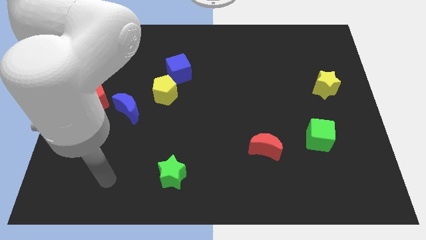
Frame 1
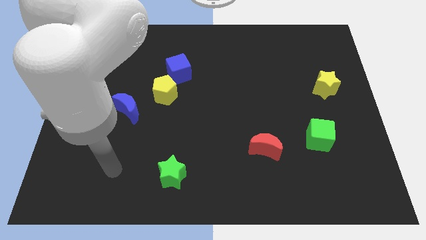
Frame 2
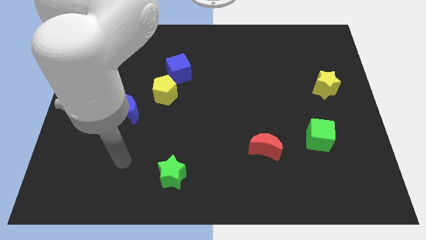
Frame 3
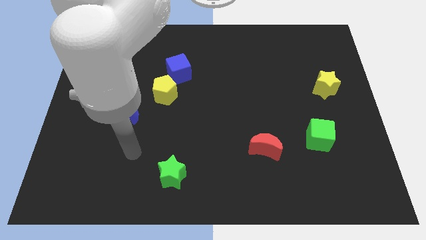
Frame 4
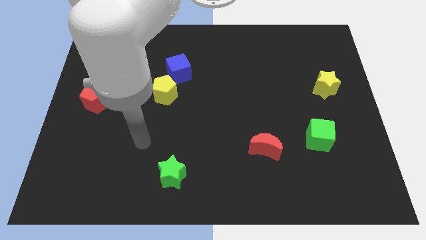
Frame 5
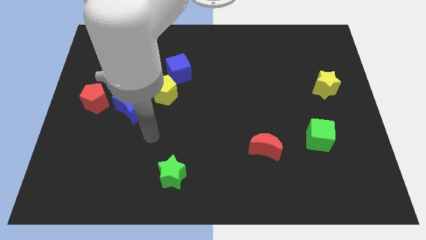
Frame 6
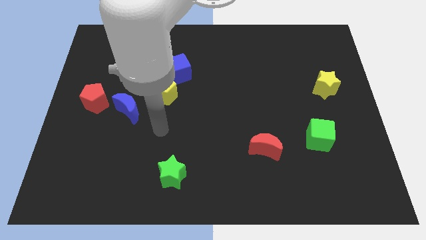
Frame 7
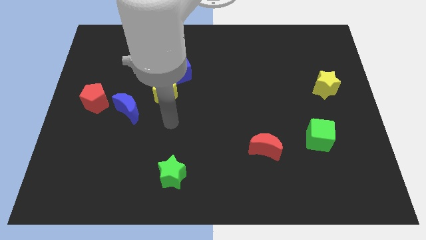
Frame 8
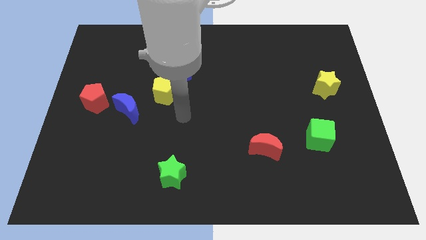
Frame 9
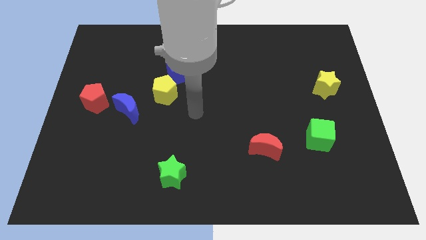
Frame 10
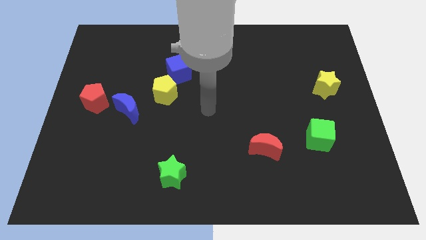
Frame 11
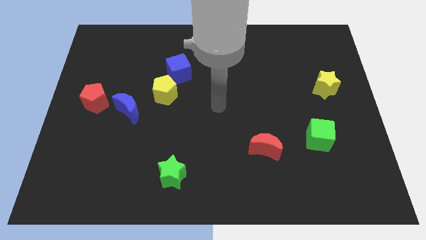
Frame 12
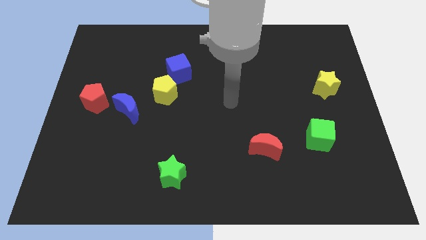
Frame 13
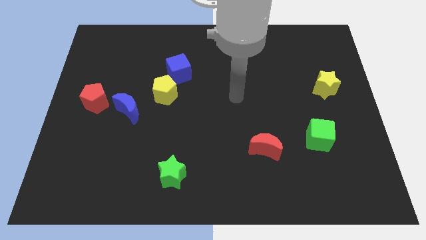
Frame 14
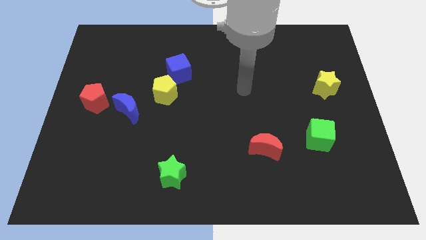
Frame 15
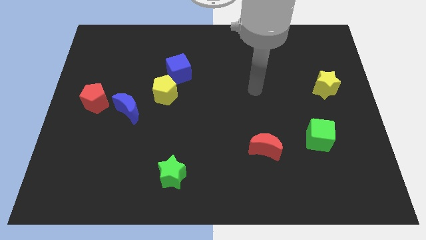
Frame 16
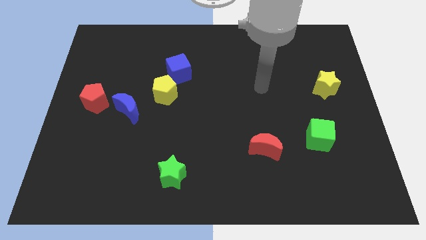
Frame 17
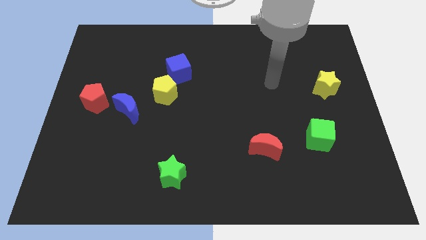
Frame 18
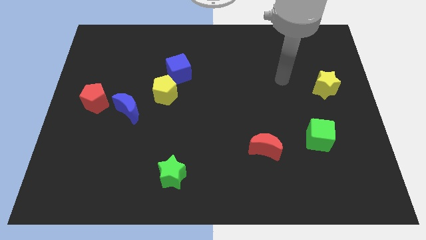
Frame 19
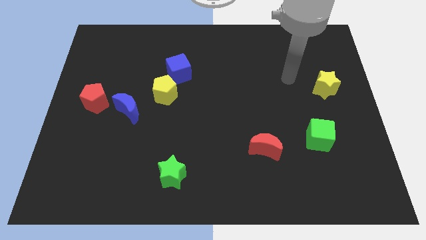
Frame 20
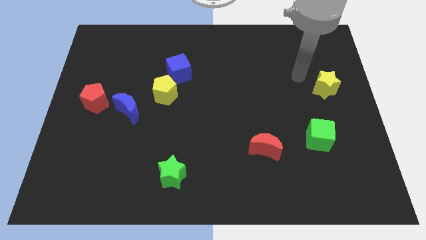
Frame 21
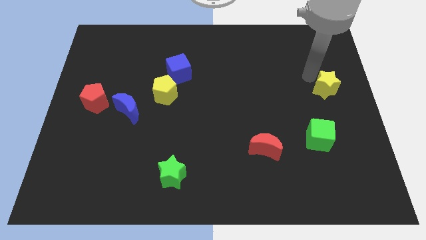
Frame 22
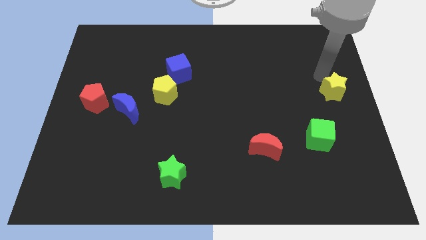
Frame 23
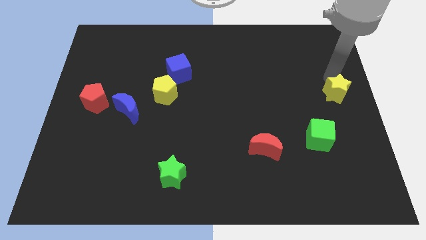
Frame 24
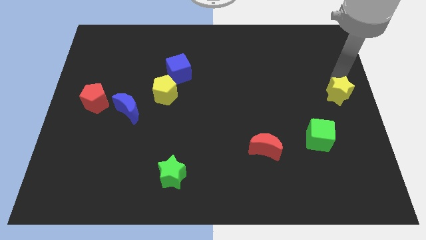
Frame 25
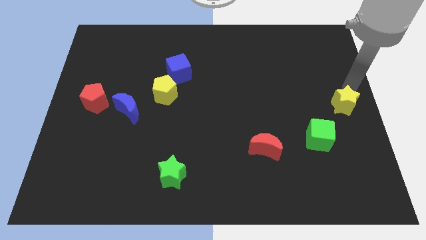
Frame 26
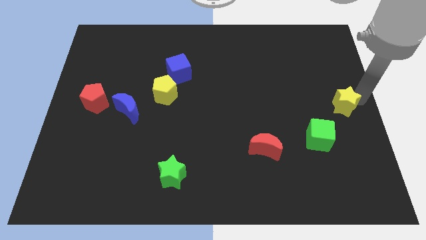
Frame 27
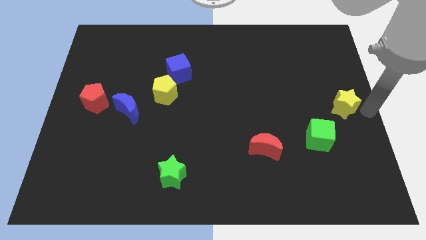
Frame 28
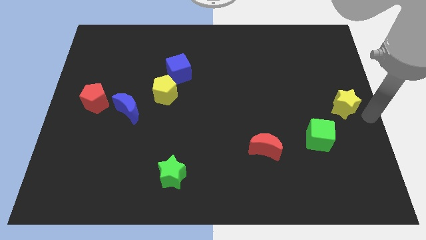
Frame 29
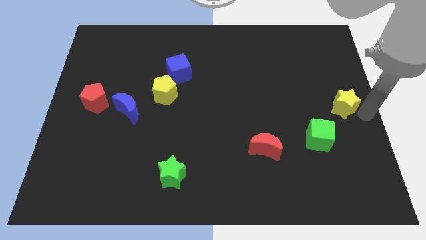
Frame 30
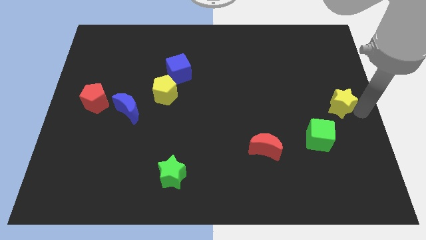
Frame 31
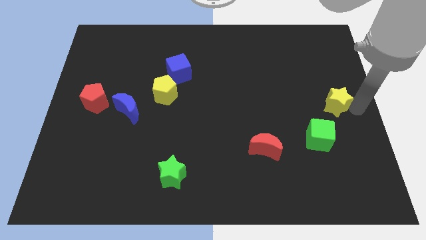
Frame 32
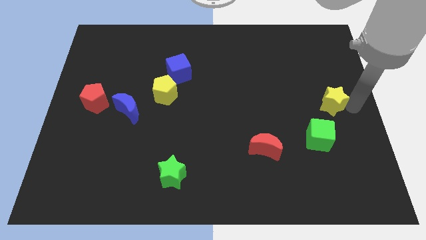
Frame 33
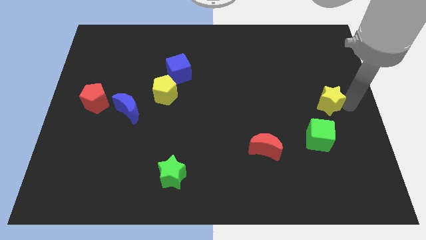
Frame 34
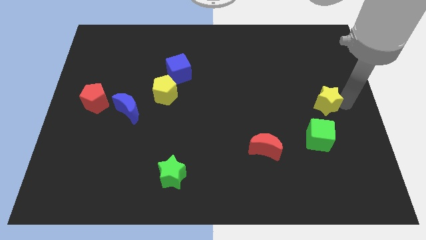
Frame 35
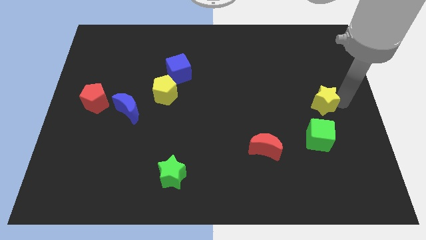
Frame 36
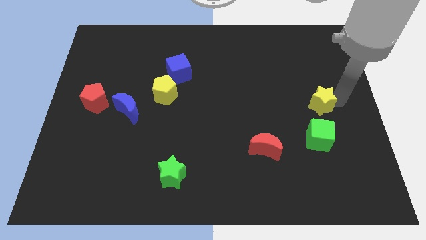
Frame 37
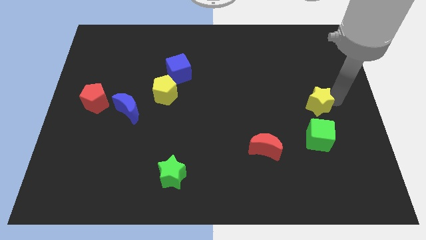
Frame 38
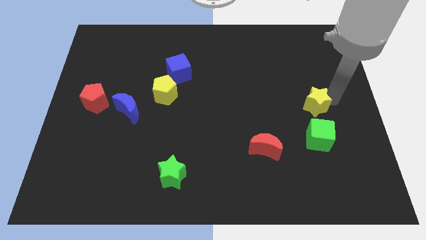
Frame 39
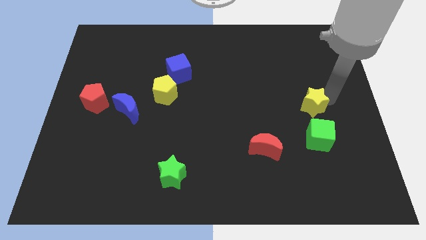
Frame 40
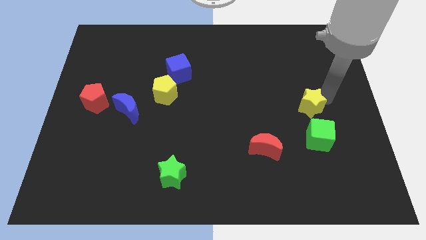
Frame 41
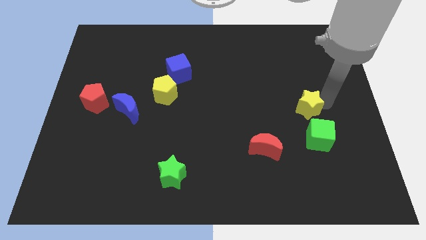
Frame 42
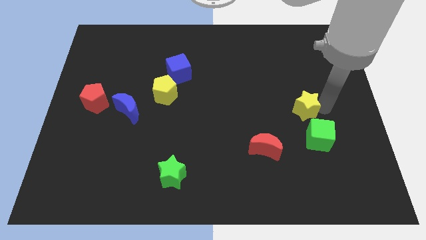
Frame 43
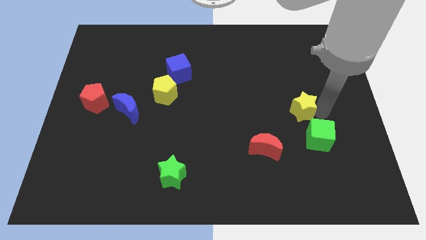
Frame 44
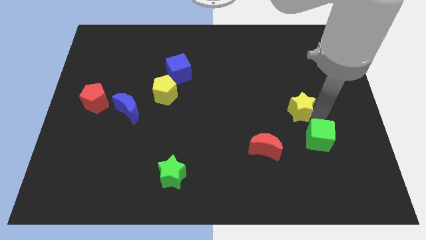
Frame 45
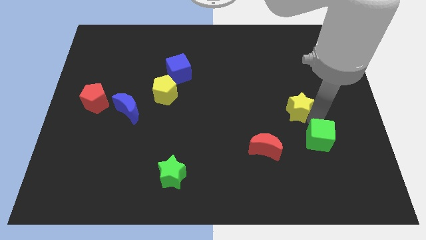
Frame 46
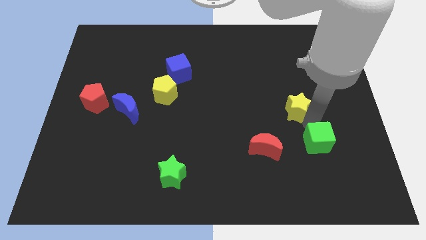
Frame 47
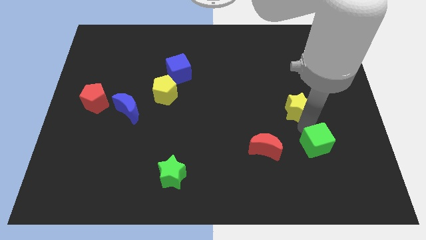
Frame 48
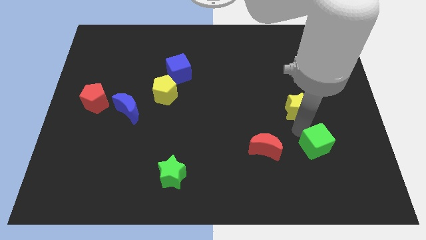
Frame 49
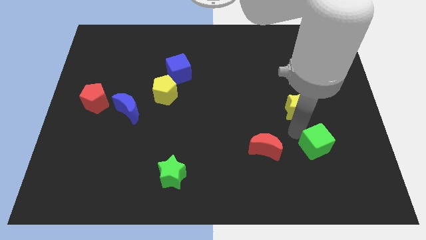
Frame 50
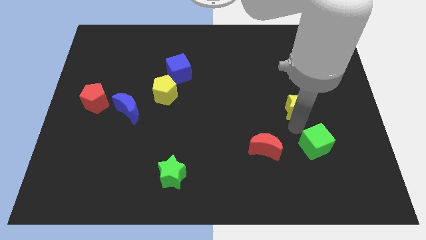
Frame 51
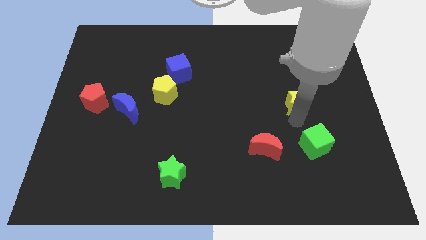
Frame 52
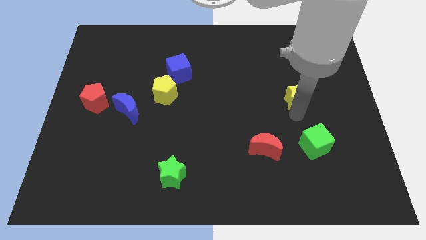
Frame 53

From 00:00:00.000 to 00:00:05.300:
move the yellow star a bit left

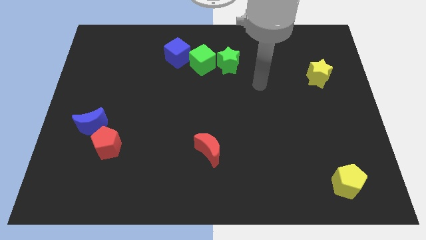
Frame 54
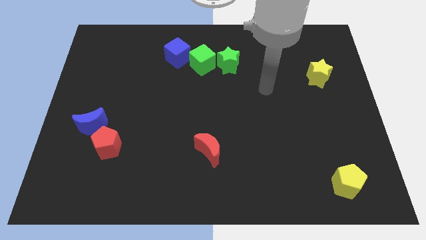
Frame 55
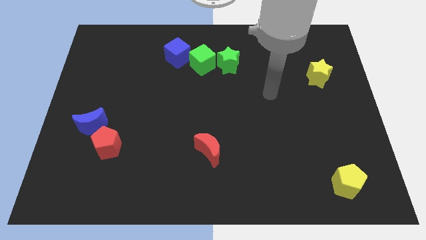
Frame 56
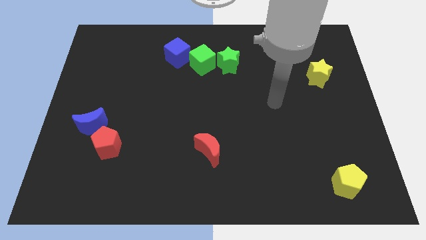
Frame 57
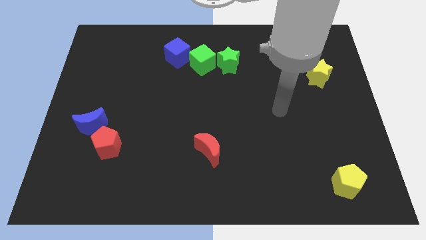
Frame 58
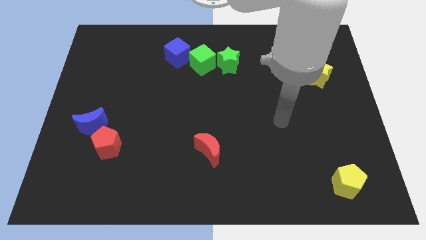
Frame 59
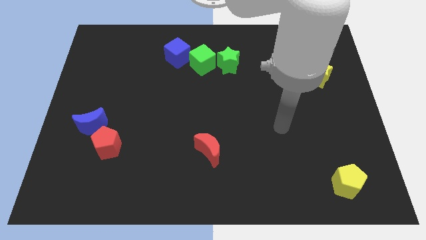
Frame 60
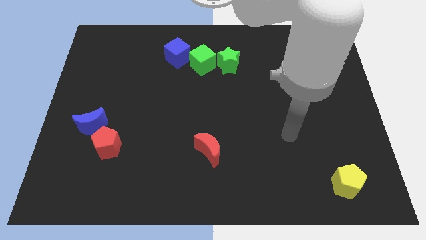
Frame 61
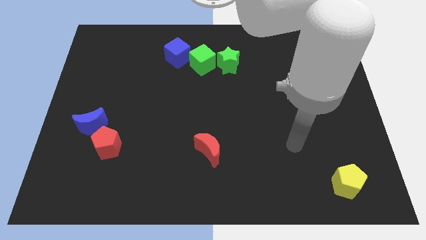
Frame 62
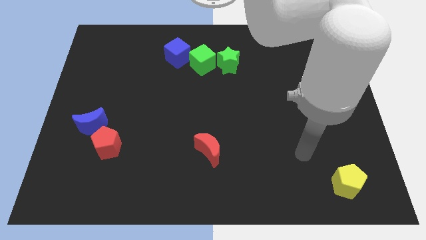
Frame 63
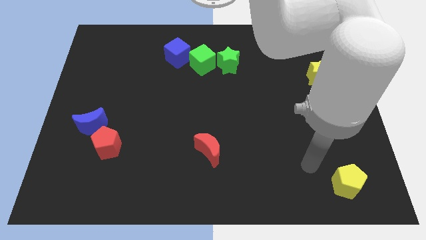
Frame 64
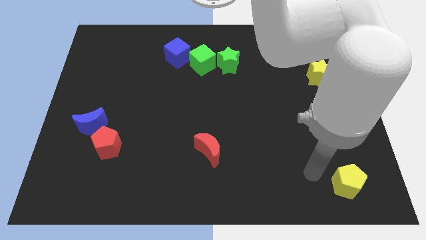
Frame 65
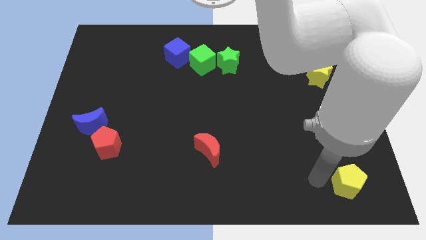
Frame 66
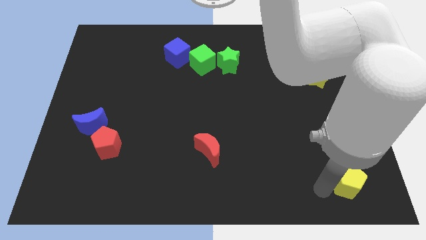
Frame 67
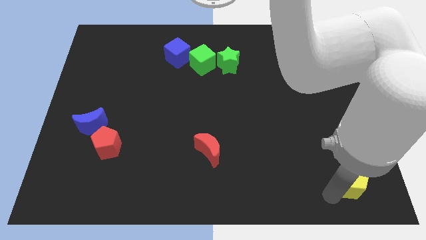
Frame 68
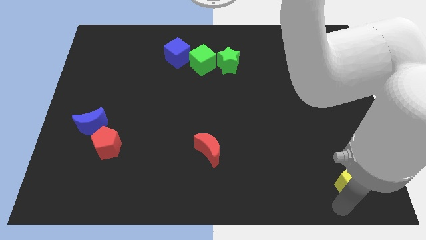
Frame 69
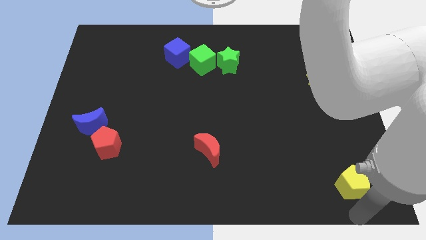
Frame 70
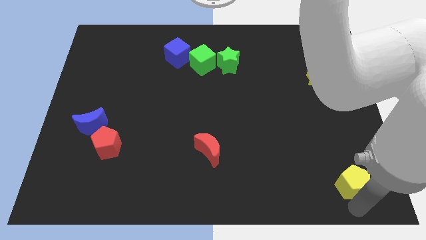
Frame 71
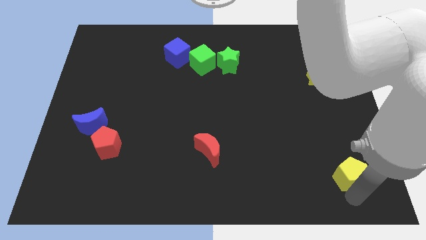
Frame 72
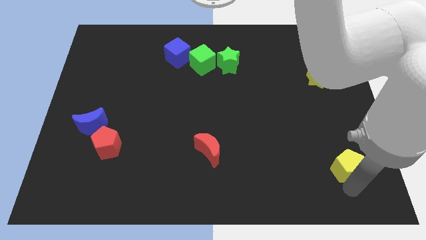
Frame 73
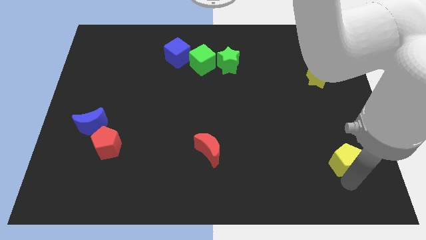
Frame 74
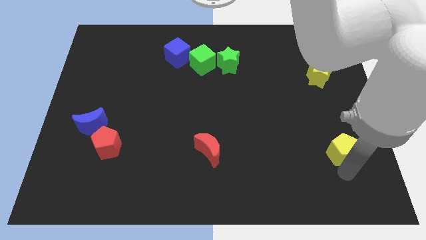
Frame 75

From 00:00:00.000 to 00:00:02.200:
slide the yellow pentagon slightly up
